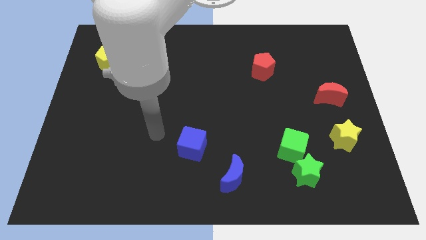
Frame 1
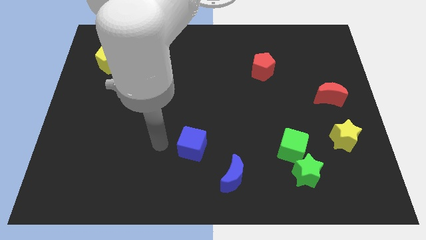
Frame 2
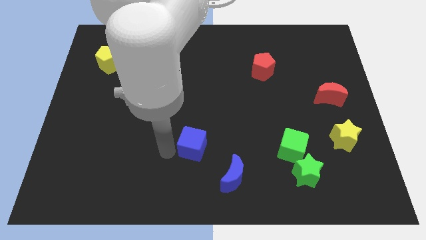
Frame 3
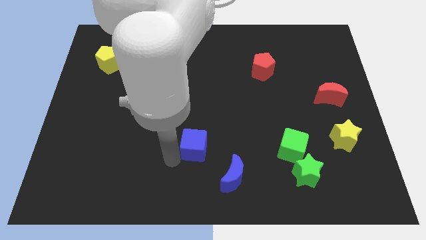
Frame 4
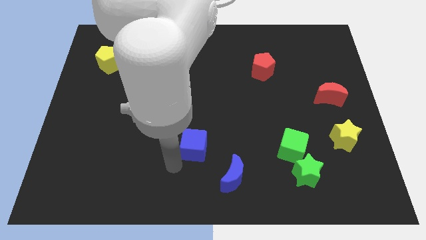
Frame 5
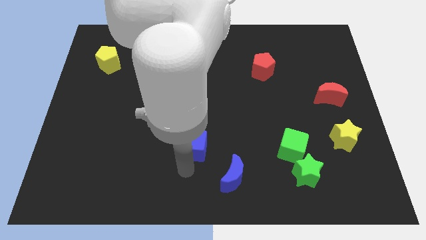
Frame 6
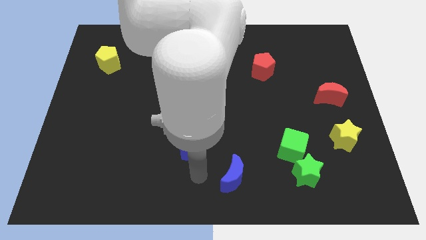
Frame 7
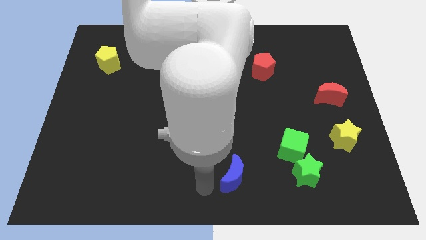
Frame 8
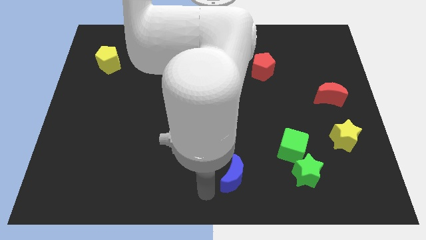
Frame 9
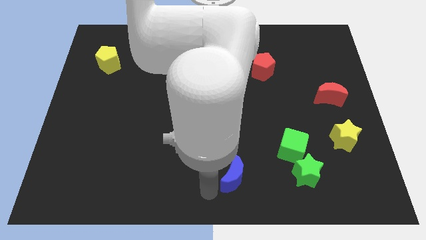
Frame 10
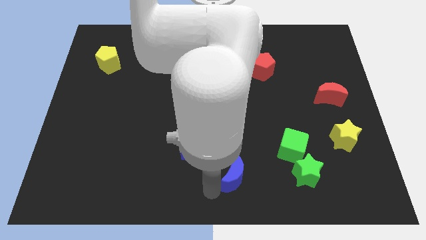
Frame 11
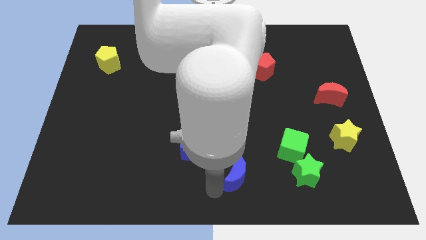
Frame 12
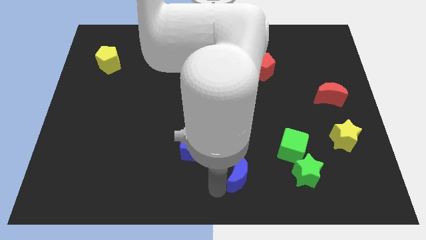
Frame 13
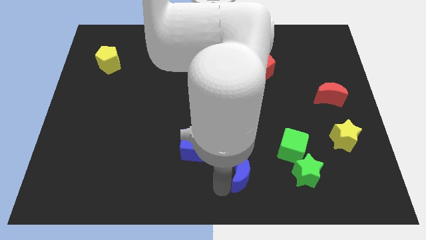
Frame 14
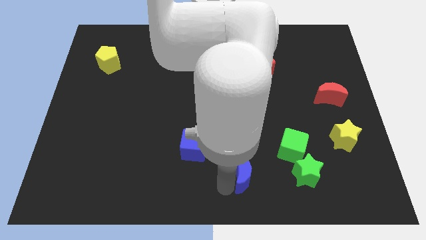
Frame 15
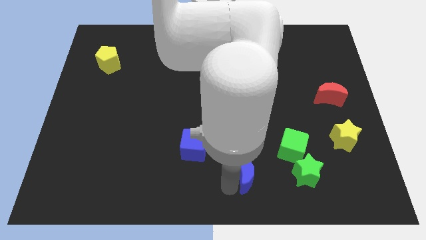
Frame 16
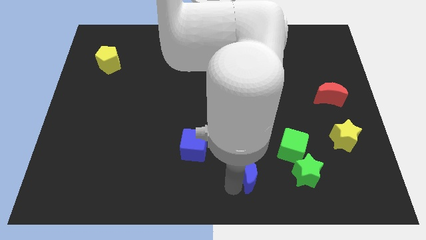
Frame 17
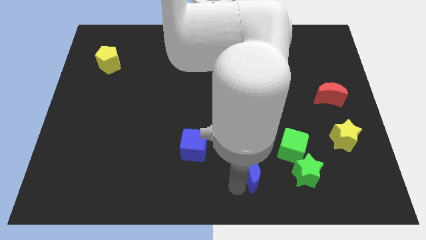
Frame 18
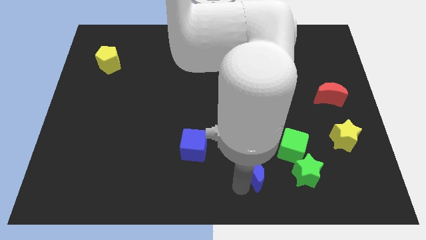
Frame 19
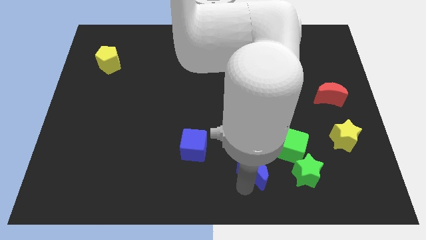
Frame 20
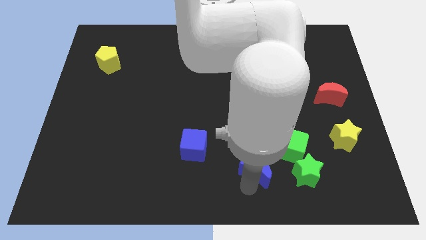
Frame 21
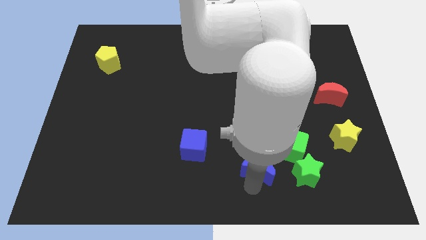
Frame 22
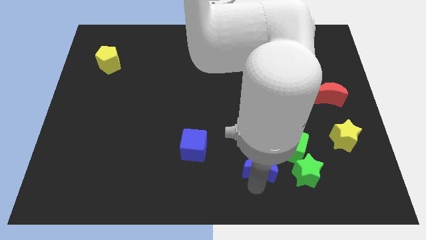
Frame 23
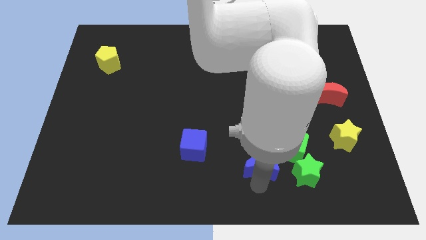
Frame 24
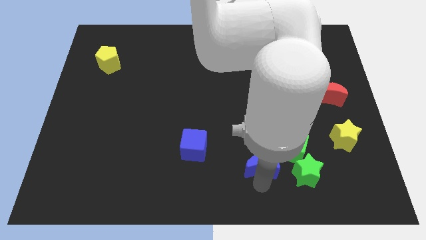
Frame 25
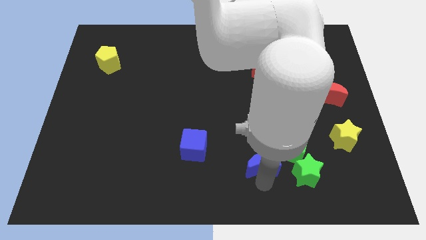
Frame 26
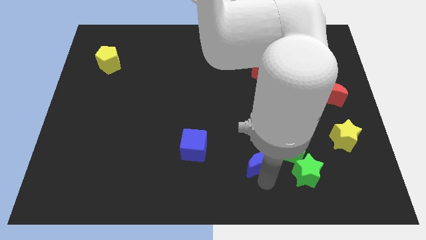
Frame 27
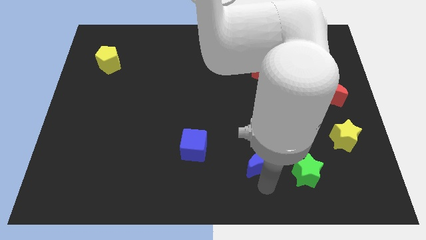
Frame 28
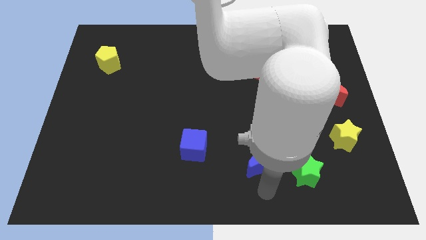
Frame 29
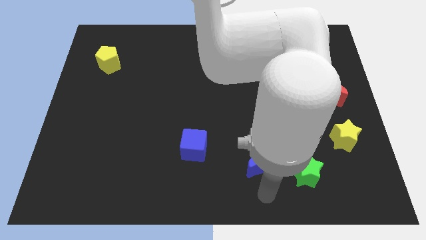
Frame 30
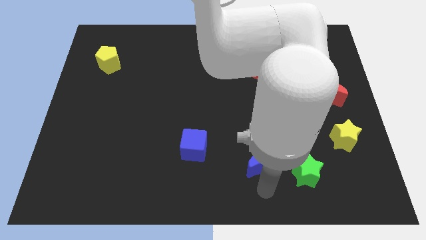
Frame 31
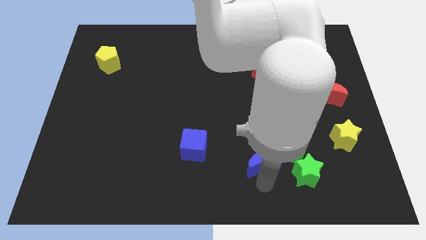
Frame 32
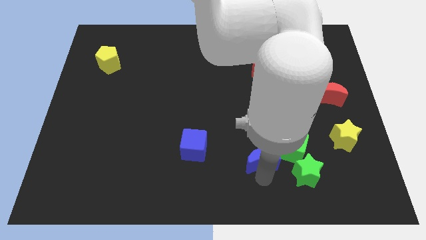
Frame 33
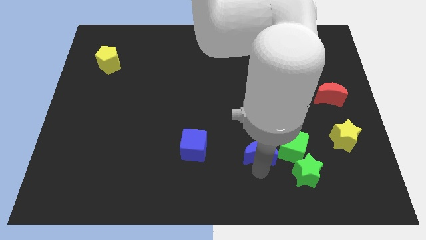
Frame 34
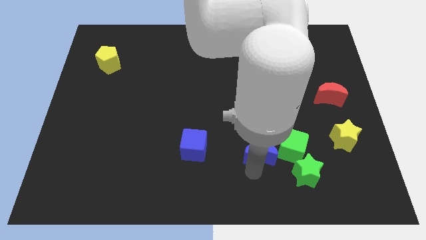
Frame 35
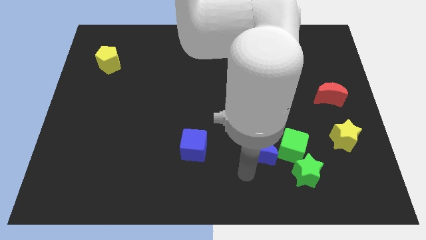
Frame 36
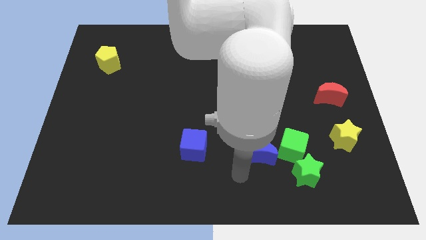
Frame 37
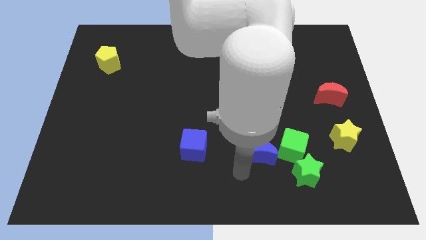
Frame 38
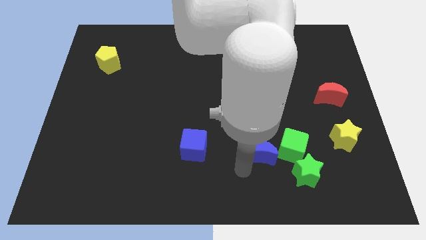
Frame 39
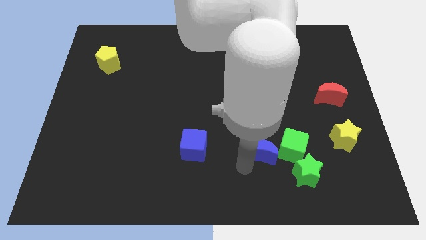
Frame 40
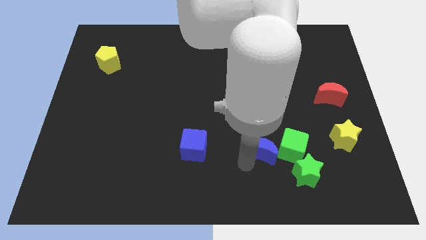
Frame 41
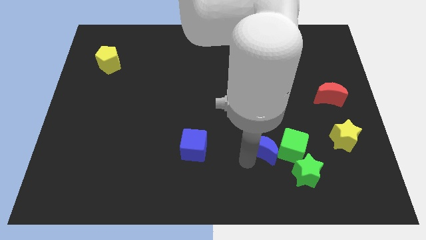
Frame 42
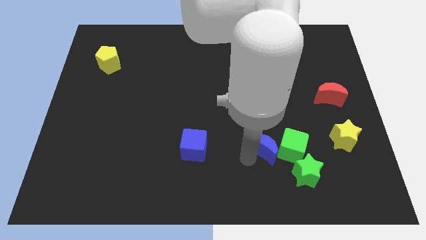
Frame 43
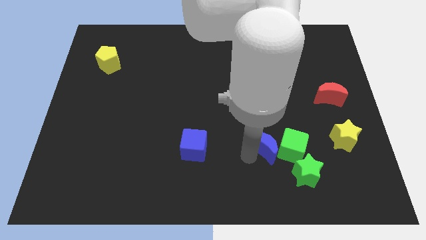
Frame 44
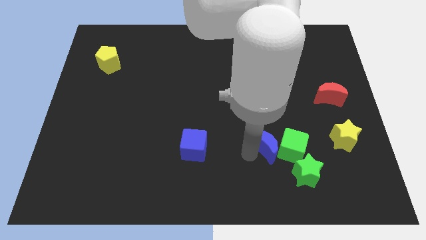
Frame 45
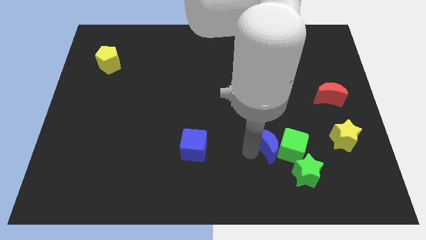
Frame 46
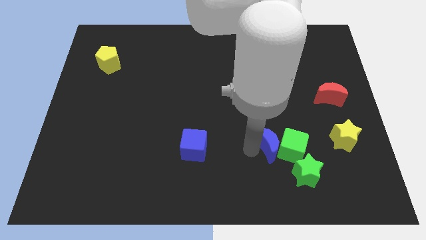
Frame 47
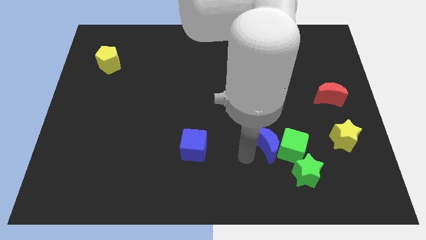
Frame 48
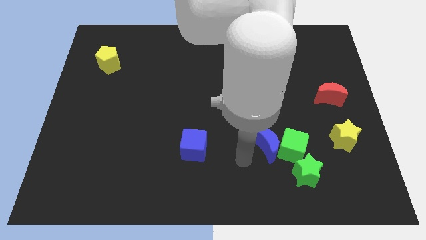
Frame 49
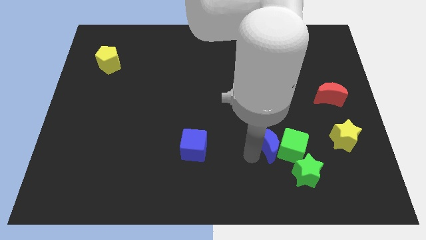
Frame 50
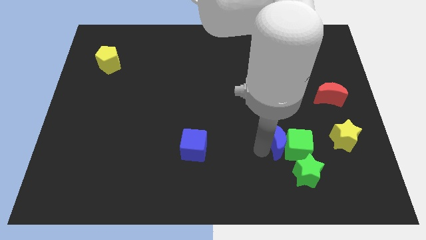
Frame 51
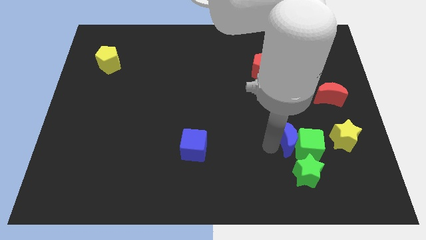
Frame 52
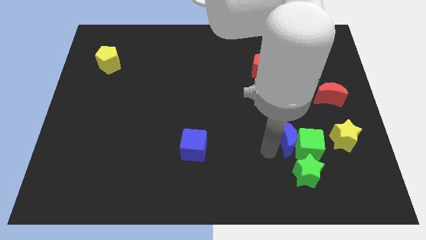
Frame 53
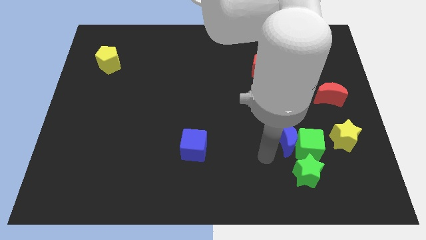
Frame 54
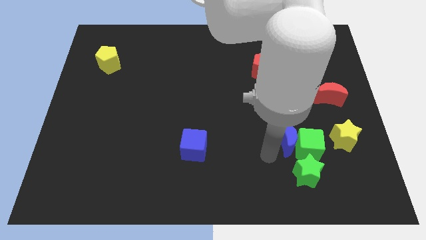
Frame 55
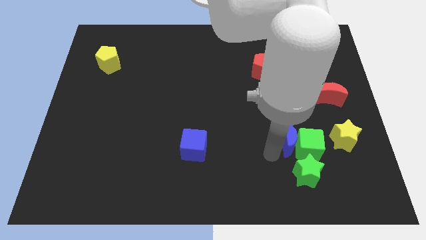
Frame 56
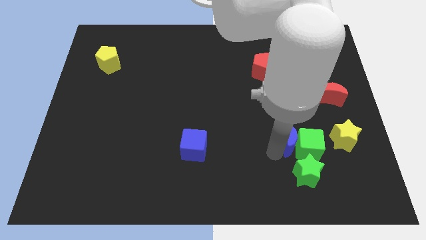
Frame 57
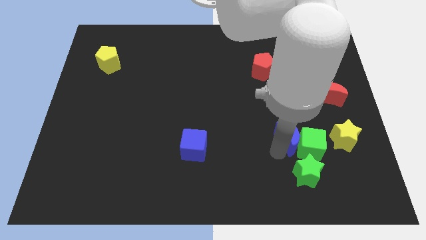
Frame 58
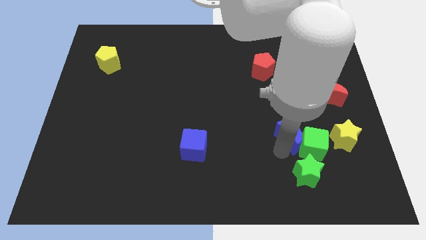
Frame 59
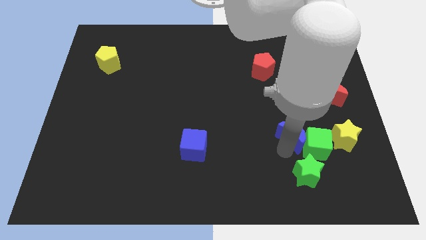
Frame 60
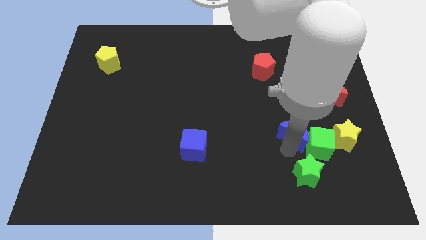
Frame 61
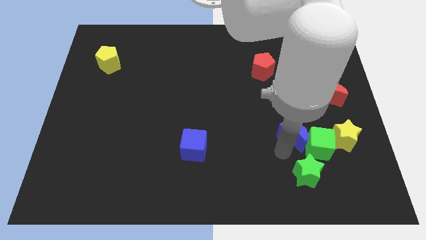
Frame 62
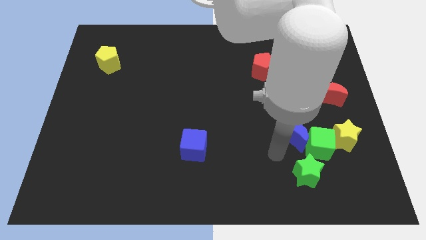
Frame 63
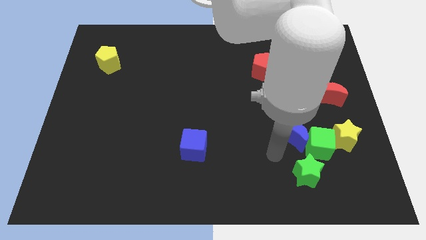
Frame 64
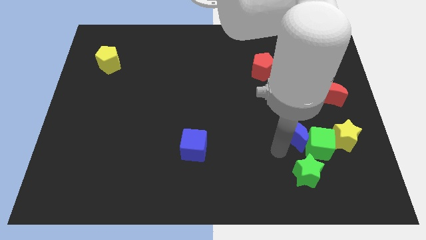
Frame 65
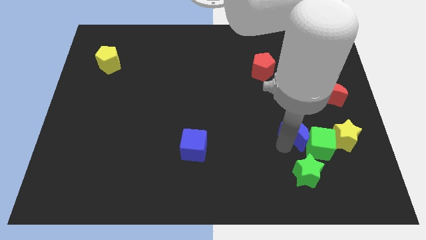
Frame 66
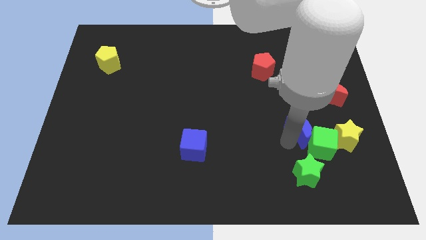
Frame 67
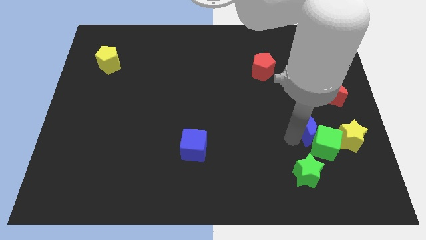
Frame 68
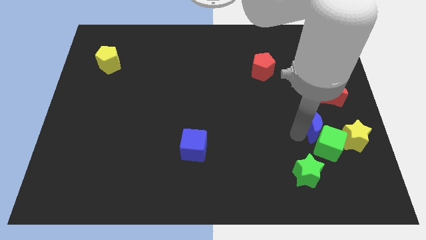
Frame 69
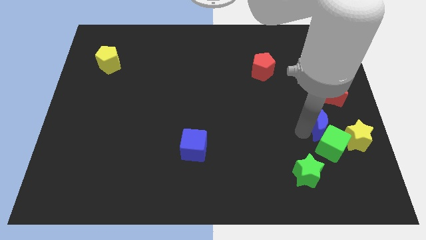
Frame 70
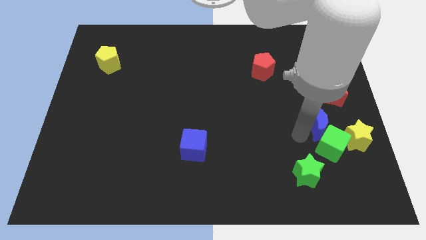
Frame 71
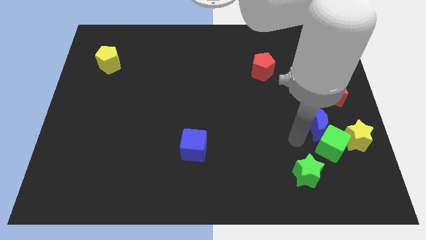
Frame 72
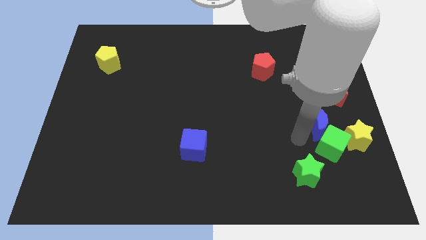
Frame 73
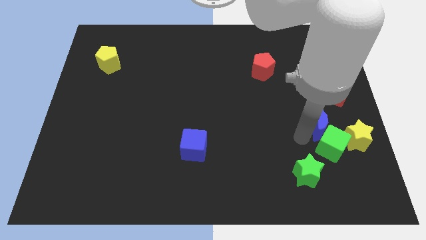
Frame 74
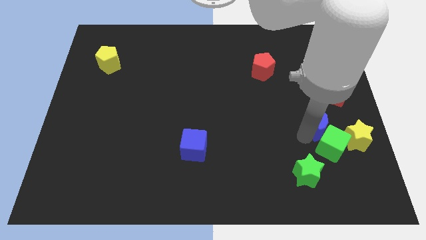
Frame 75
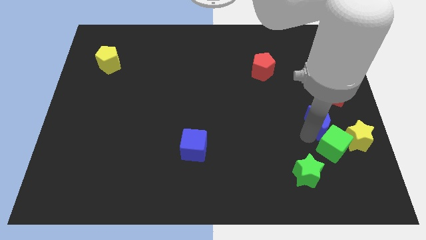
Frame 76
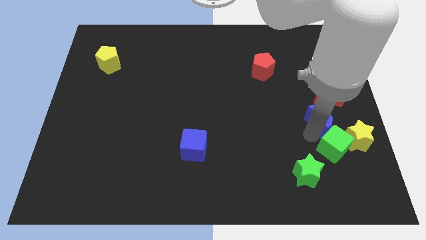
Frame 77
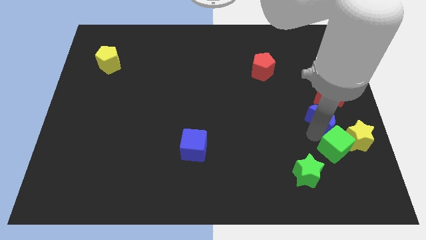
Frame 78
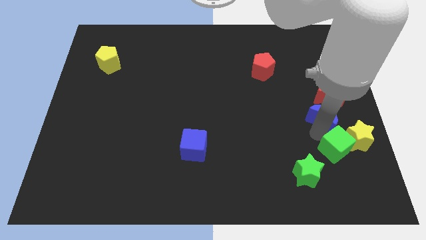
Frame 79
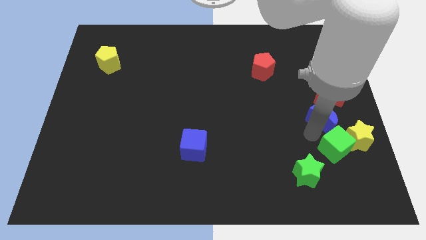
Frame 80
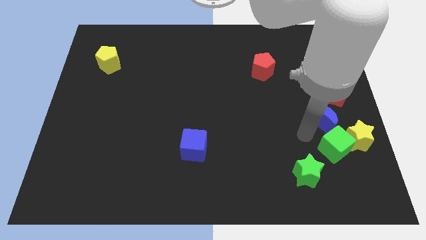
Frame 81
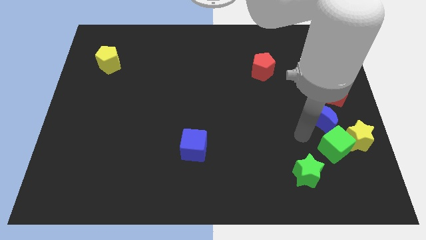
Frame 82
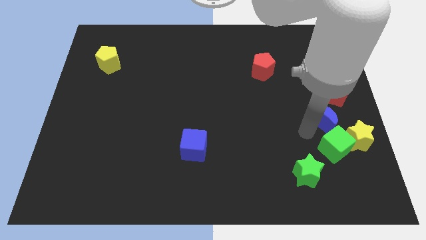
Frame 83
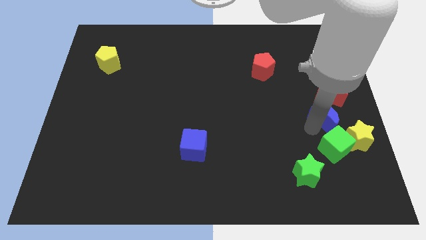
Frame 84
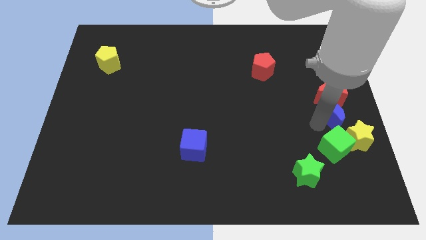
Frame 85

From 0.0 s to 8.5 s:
put the blue moon to the center right

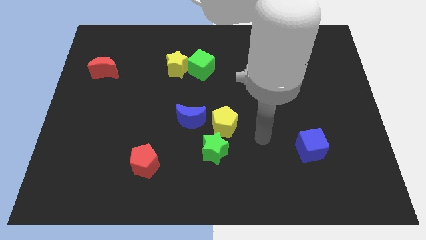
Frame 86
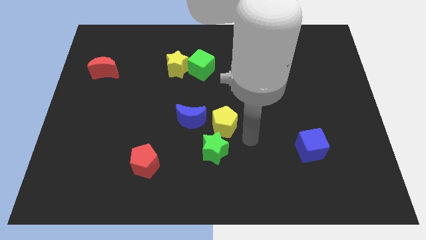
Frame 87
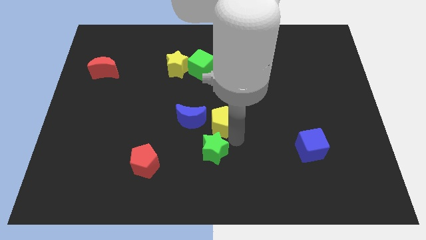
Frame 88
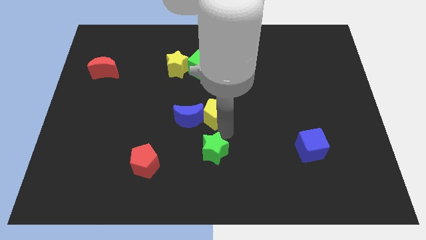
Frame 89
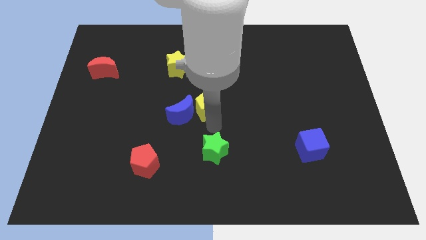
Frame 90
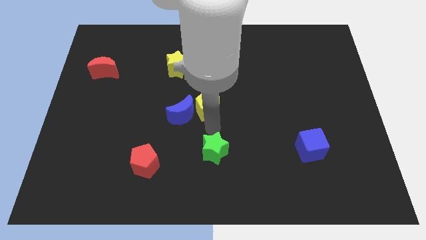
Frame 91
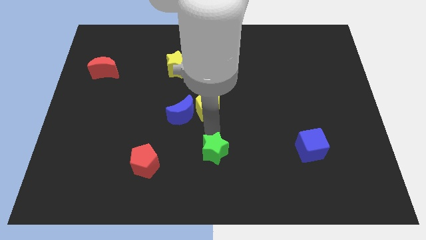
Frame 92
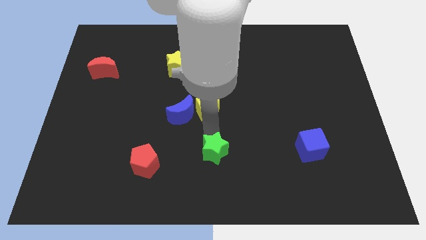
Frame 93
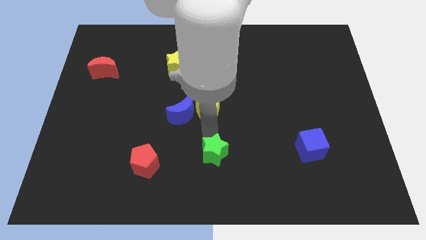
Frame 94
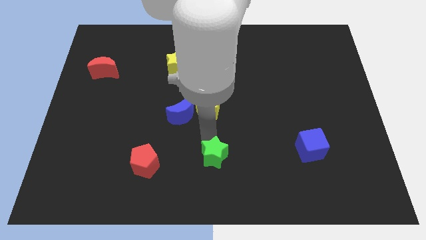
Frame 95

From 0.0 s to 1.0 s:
slide the green star to the bottom side
